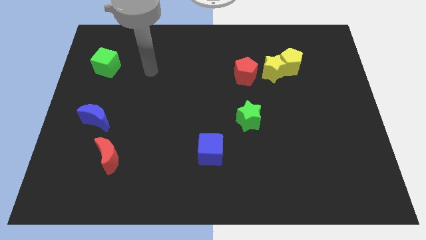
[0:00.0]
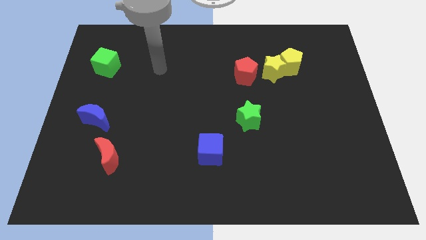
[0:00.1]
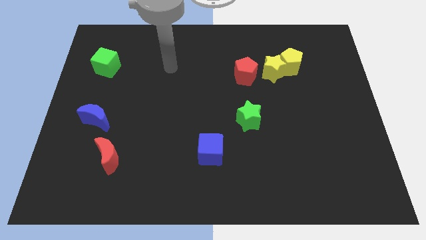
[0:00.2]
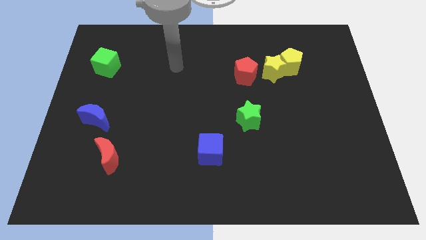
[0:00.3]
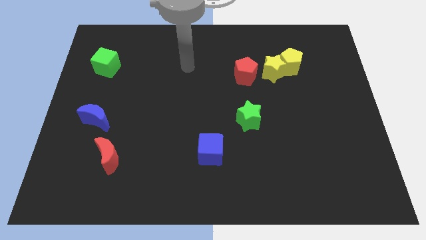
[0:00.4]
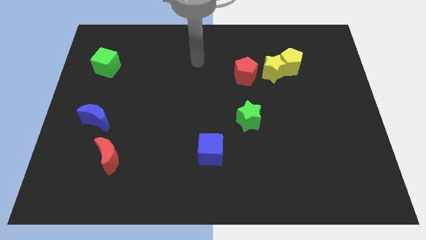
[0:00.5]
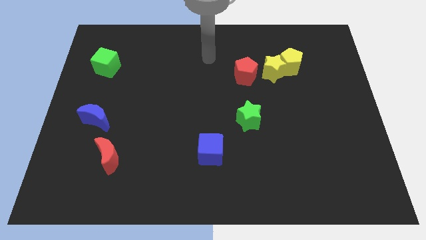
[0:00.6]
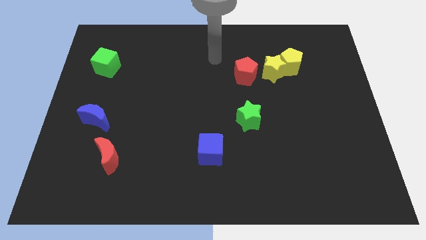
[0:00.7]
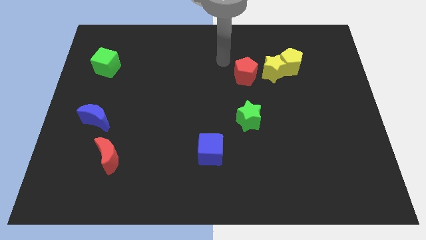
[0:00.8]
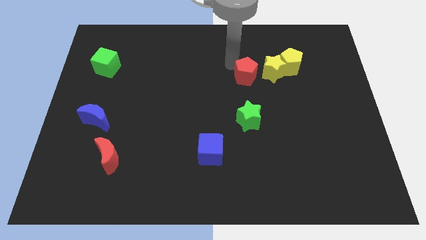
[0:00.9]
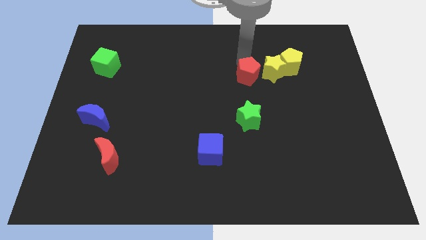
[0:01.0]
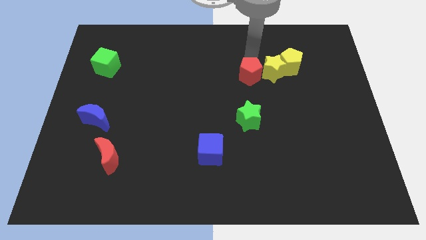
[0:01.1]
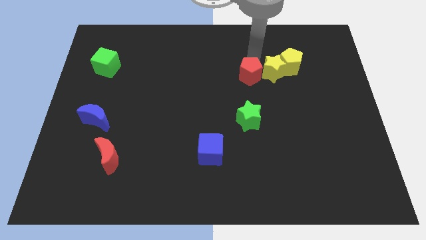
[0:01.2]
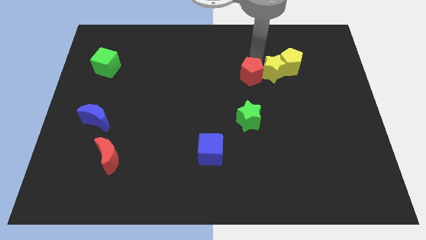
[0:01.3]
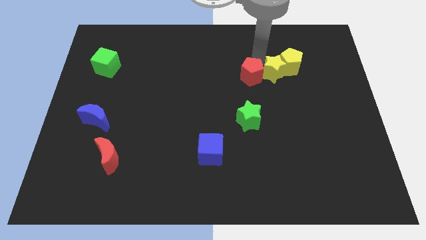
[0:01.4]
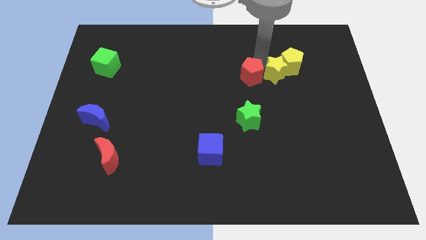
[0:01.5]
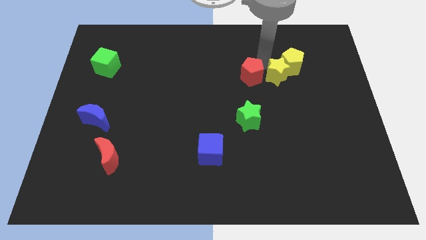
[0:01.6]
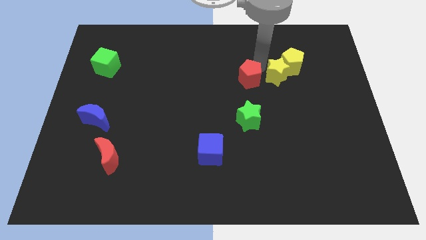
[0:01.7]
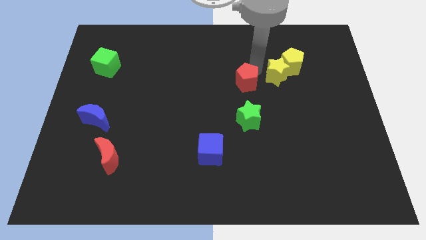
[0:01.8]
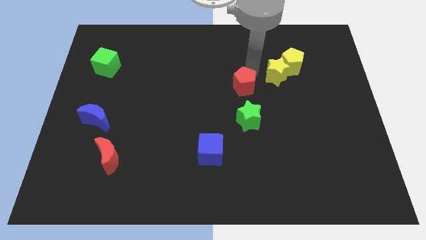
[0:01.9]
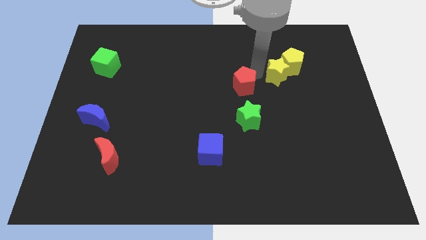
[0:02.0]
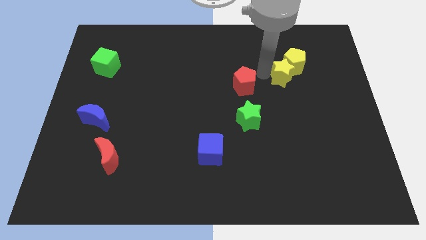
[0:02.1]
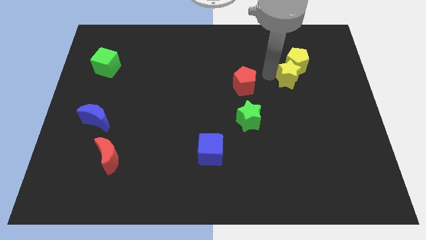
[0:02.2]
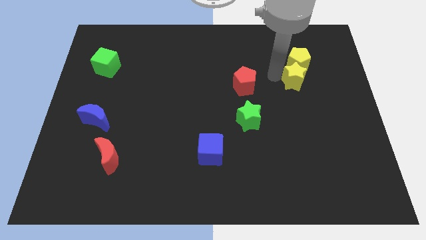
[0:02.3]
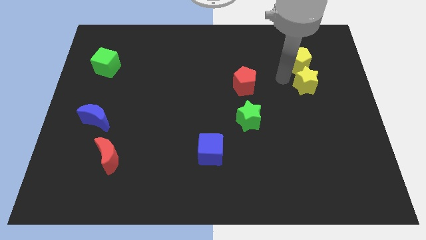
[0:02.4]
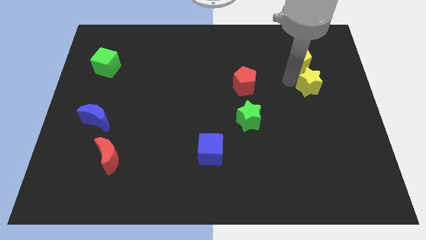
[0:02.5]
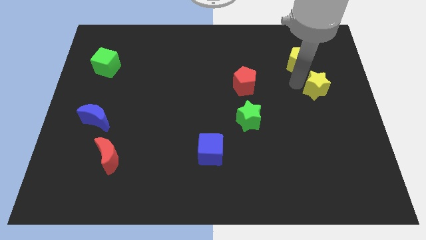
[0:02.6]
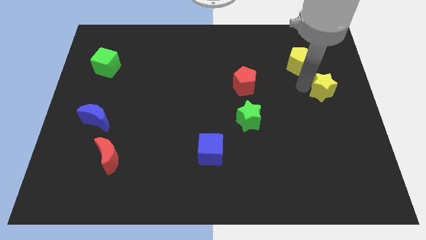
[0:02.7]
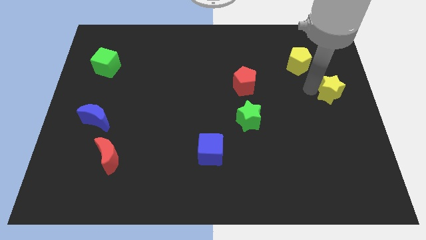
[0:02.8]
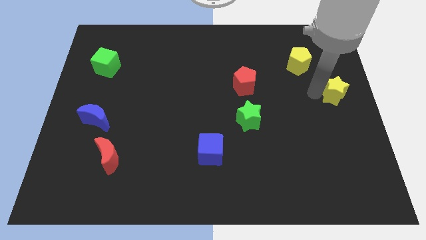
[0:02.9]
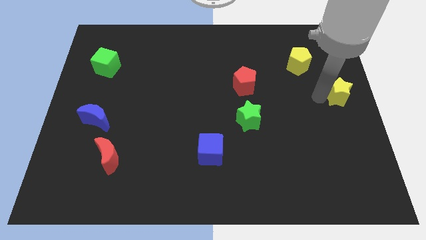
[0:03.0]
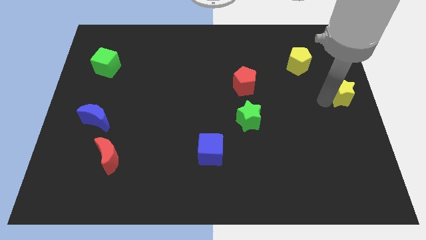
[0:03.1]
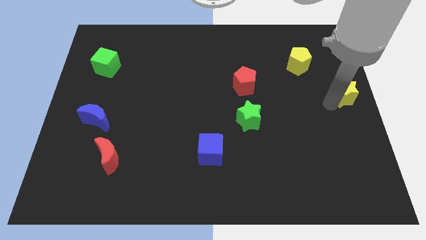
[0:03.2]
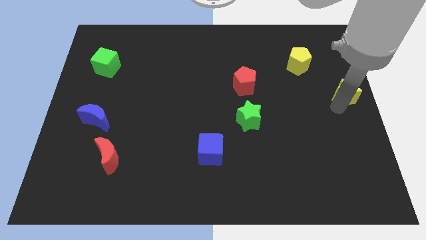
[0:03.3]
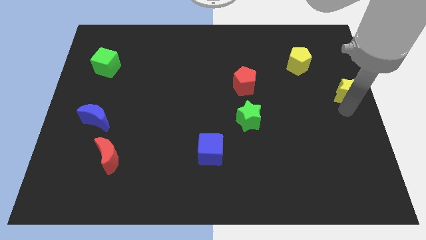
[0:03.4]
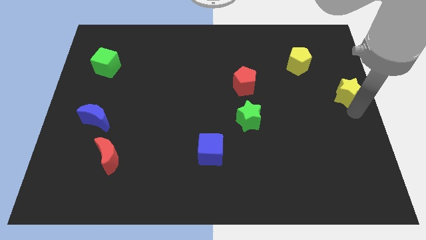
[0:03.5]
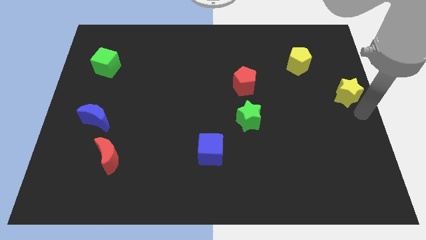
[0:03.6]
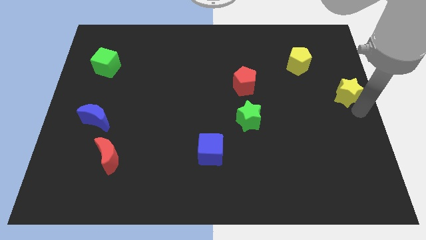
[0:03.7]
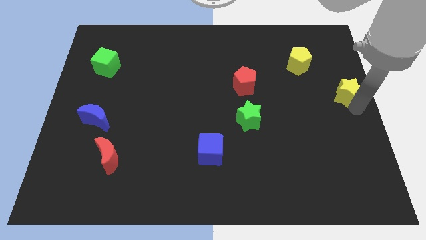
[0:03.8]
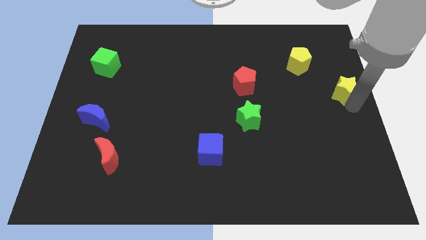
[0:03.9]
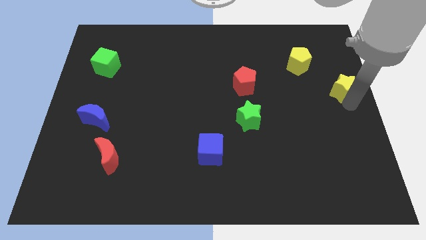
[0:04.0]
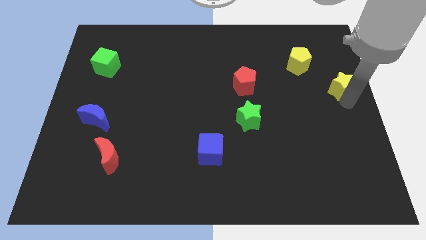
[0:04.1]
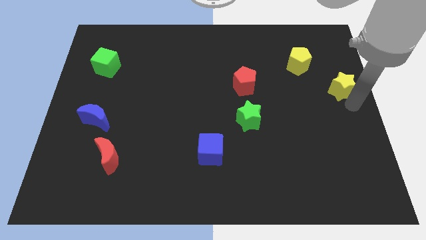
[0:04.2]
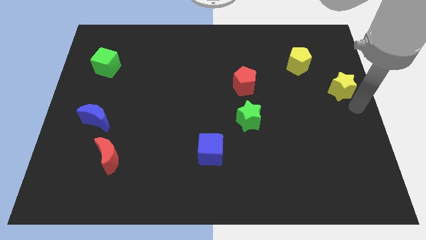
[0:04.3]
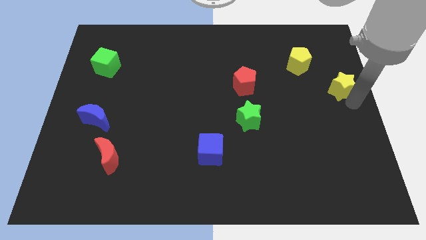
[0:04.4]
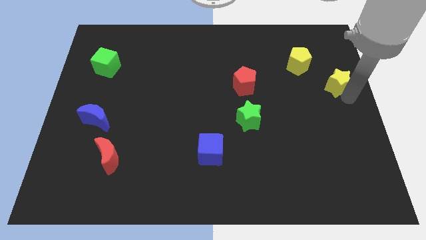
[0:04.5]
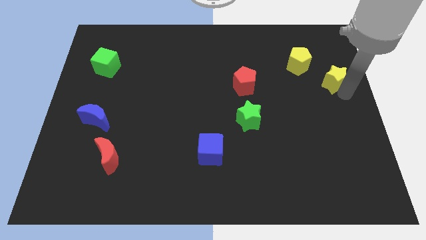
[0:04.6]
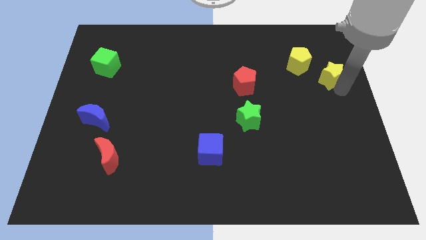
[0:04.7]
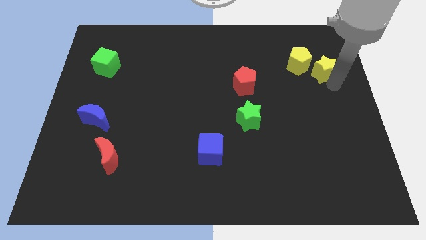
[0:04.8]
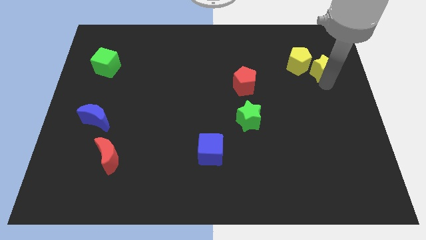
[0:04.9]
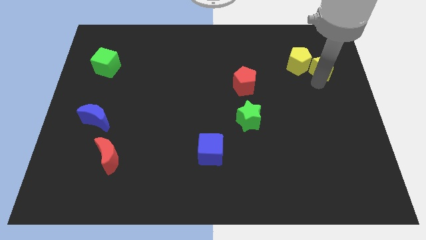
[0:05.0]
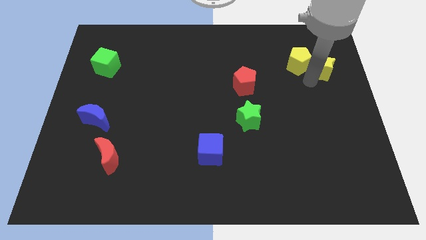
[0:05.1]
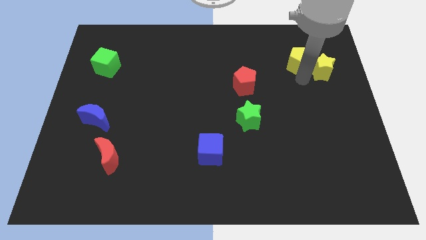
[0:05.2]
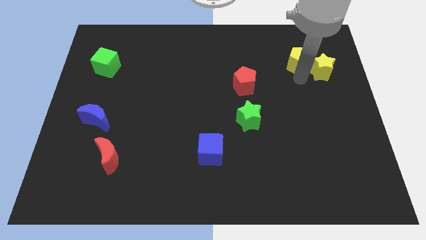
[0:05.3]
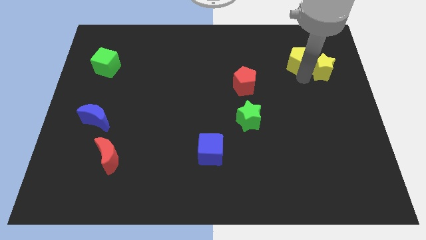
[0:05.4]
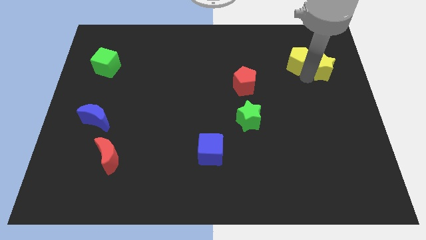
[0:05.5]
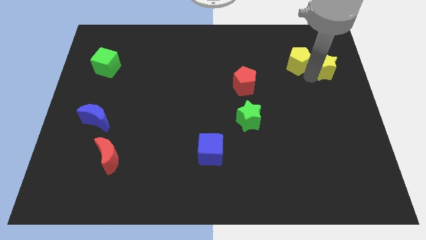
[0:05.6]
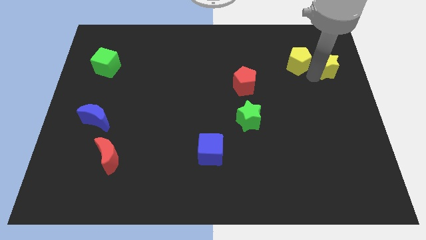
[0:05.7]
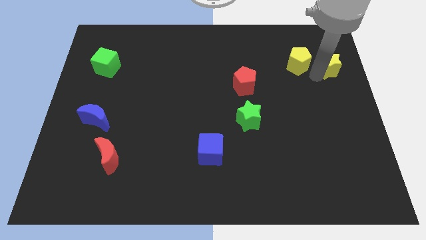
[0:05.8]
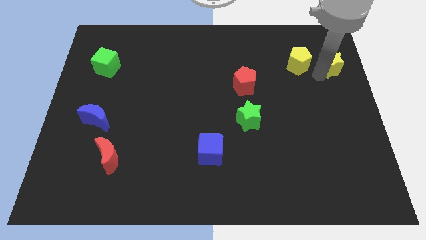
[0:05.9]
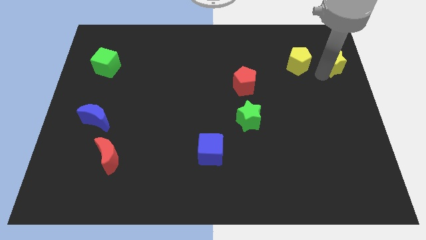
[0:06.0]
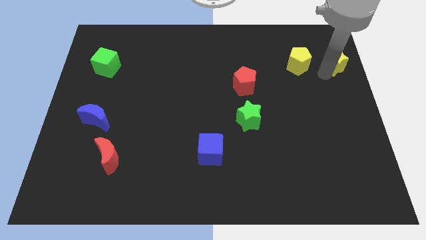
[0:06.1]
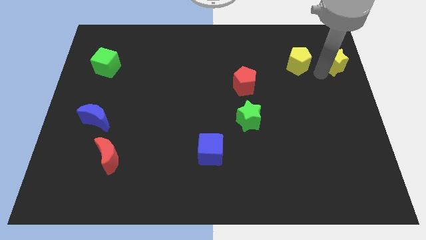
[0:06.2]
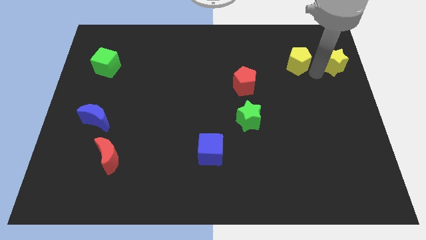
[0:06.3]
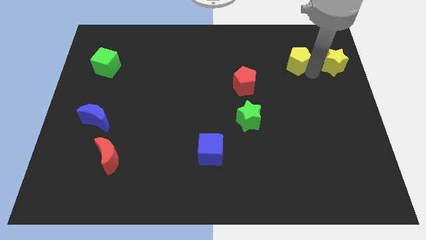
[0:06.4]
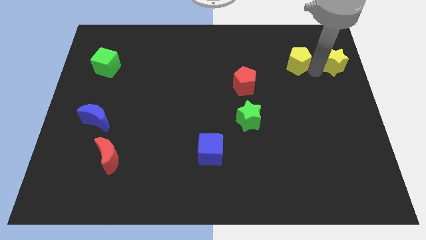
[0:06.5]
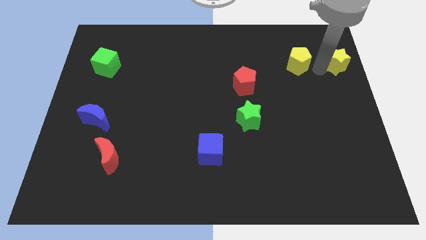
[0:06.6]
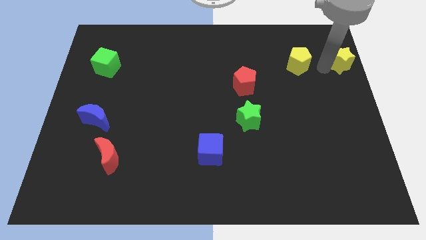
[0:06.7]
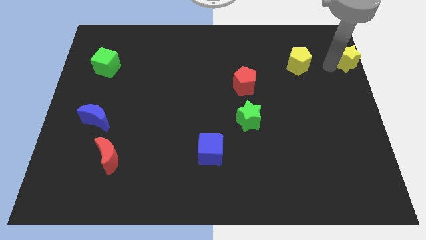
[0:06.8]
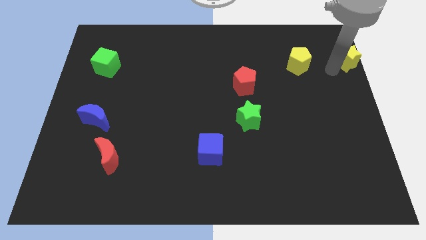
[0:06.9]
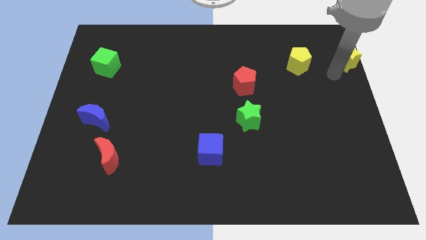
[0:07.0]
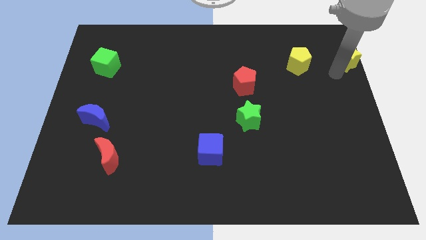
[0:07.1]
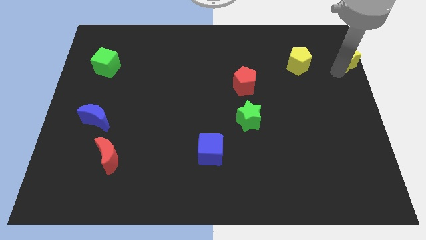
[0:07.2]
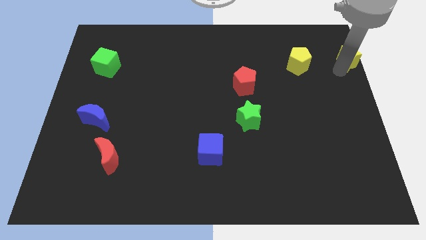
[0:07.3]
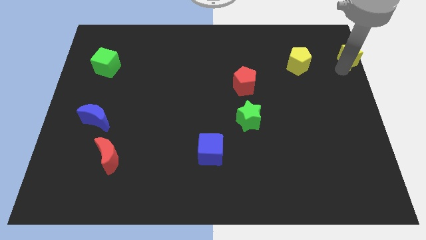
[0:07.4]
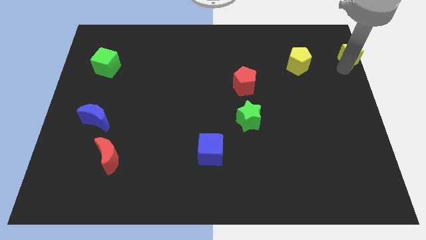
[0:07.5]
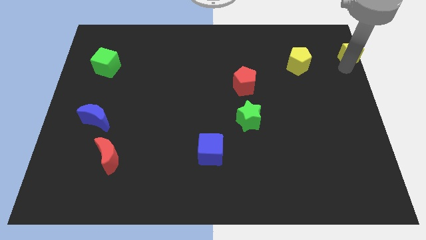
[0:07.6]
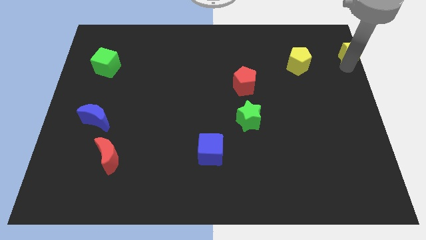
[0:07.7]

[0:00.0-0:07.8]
move the yellow star to the top right corner
